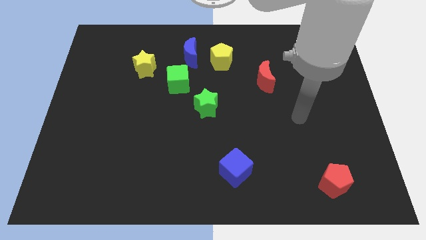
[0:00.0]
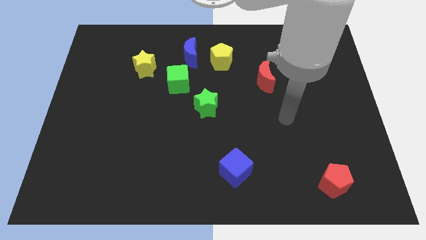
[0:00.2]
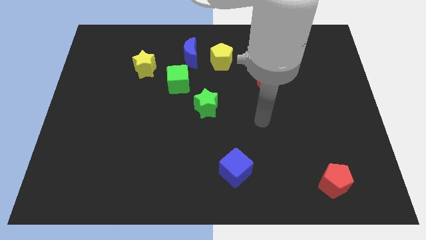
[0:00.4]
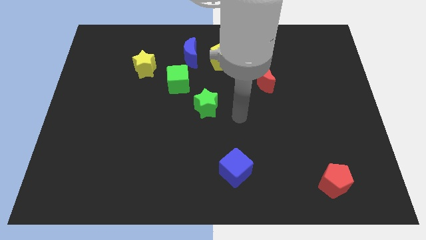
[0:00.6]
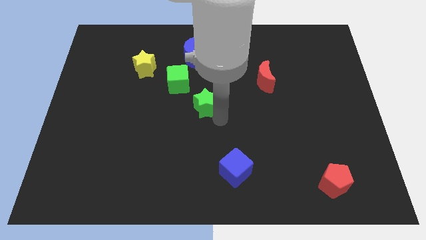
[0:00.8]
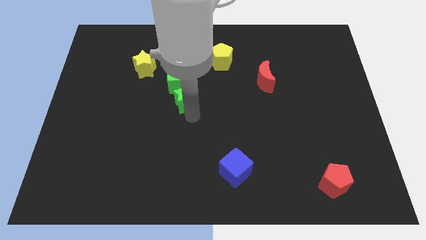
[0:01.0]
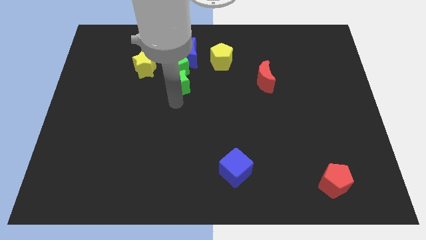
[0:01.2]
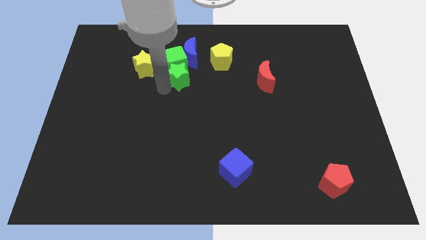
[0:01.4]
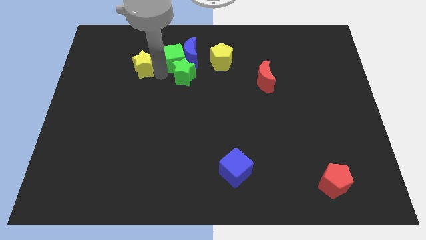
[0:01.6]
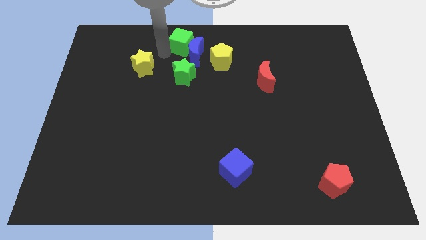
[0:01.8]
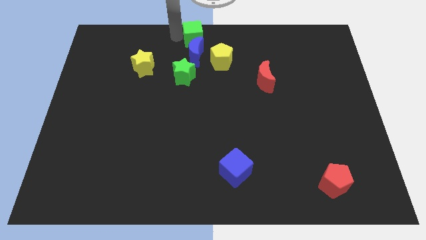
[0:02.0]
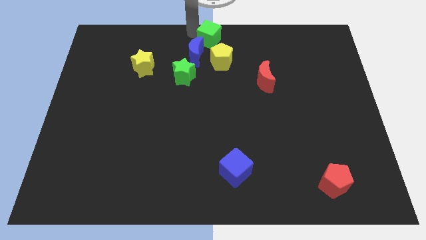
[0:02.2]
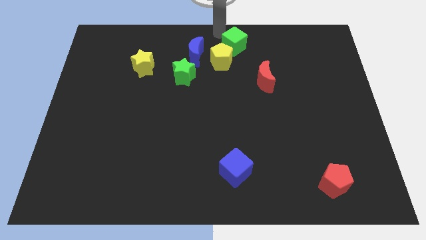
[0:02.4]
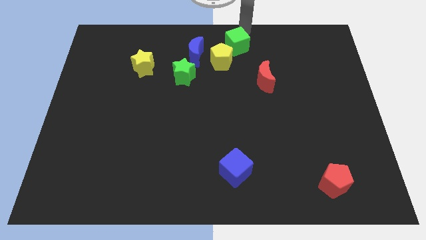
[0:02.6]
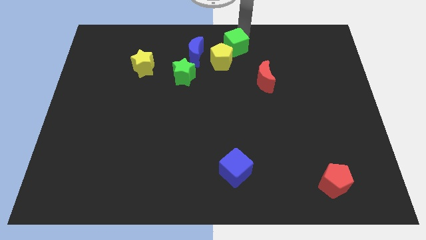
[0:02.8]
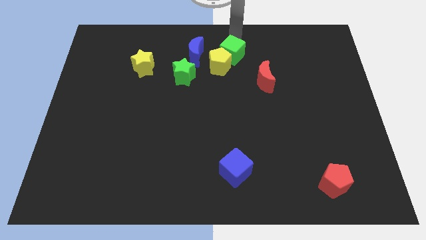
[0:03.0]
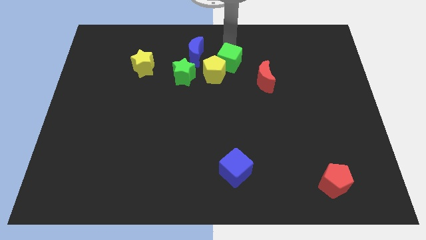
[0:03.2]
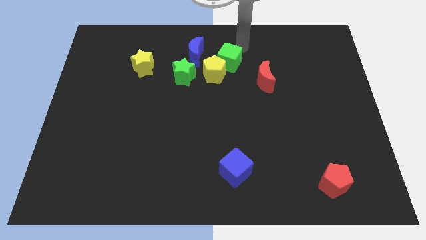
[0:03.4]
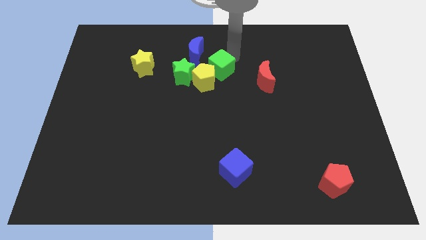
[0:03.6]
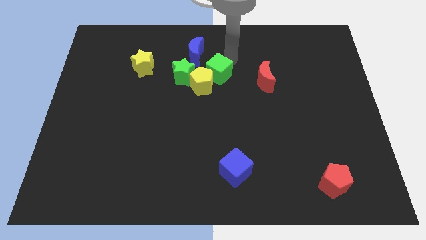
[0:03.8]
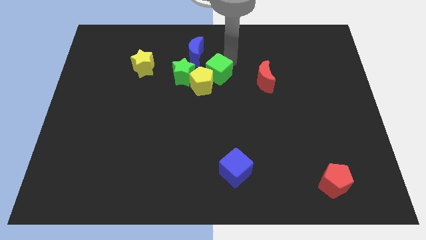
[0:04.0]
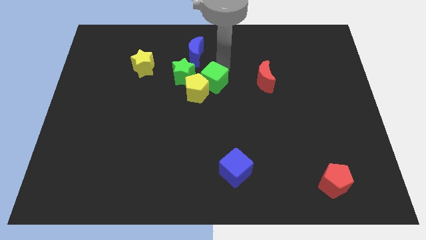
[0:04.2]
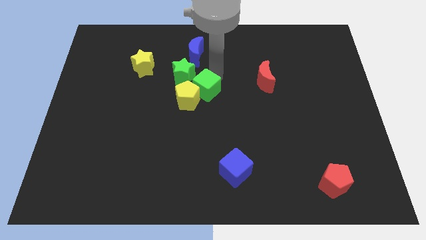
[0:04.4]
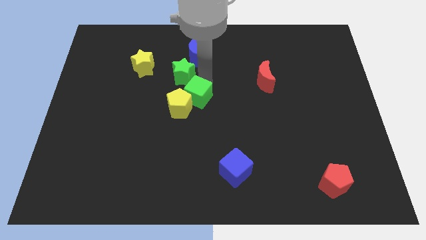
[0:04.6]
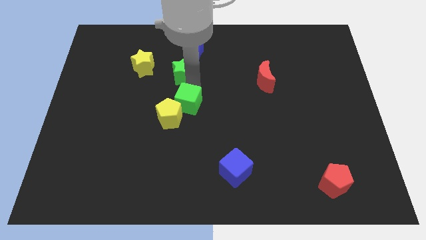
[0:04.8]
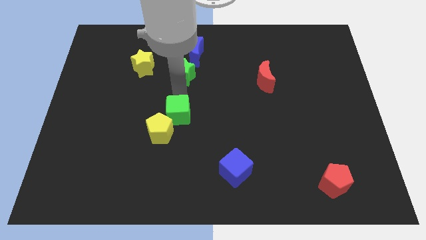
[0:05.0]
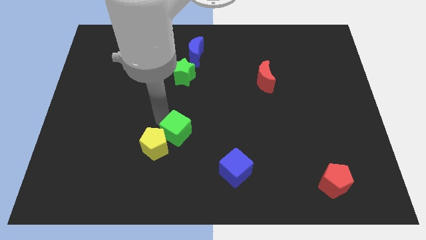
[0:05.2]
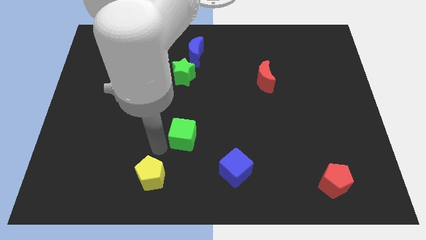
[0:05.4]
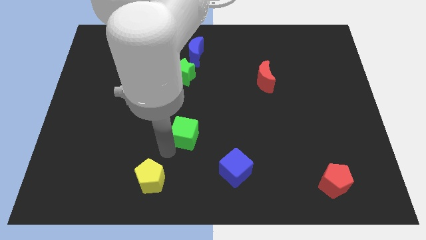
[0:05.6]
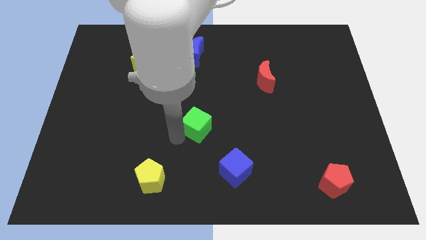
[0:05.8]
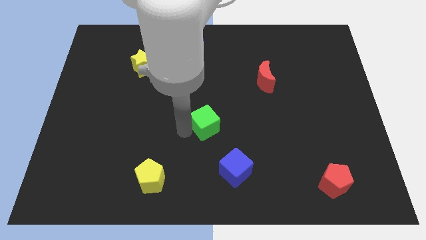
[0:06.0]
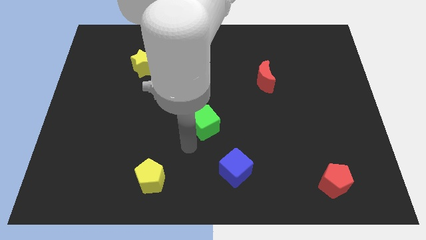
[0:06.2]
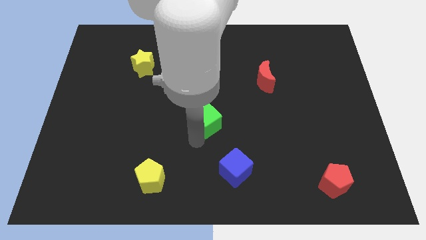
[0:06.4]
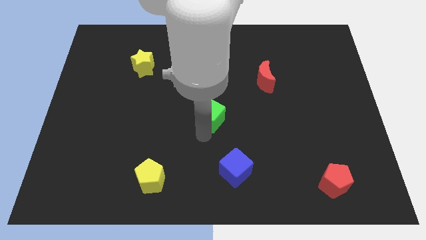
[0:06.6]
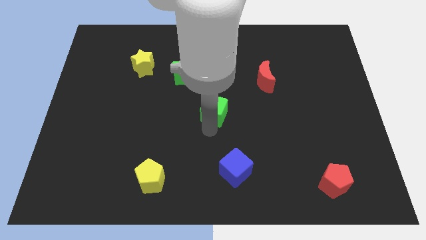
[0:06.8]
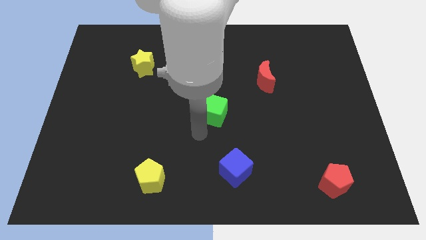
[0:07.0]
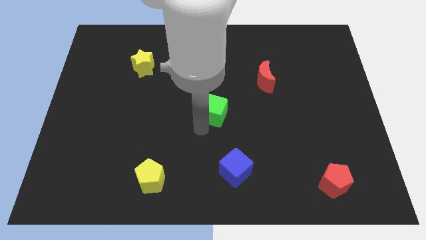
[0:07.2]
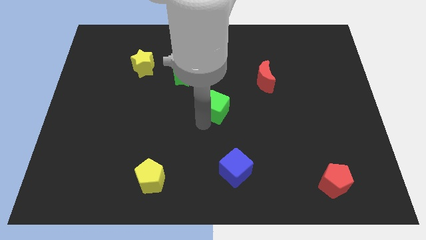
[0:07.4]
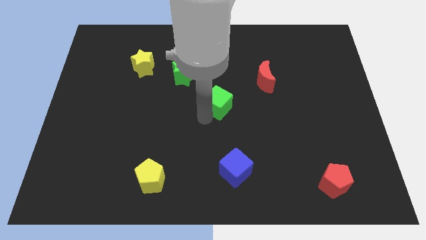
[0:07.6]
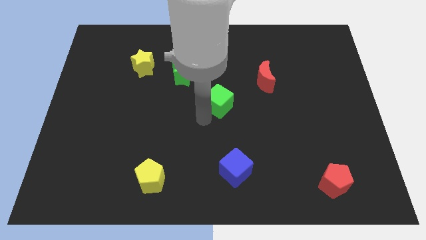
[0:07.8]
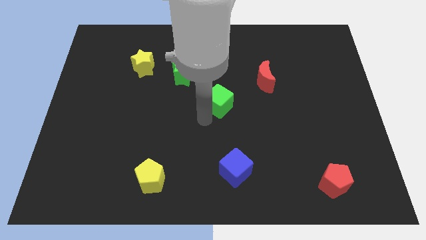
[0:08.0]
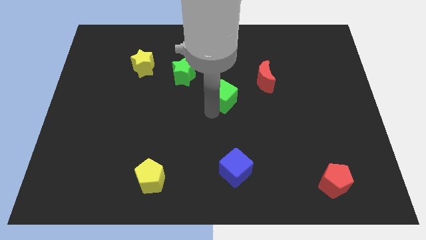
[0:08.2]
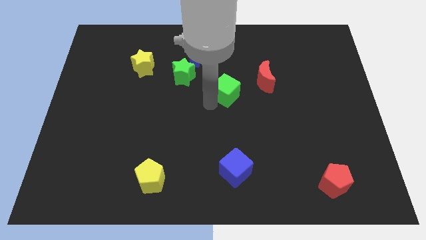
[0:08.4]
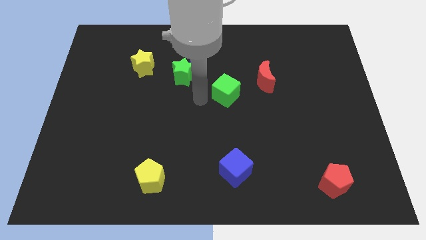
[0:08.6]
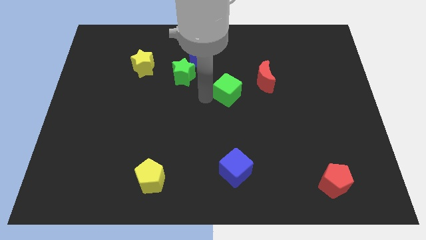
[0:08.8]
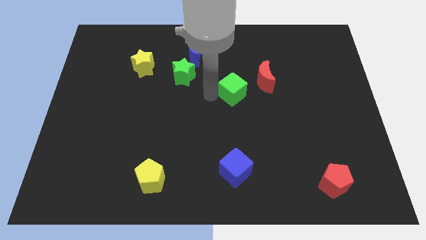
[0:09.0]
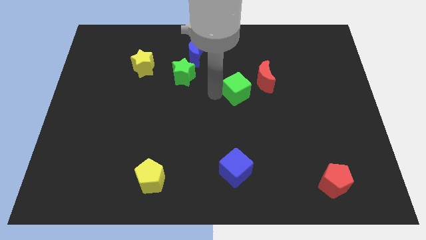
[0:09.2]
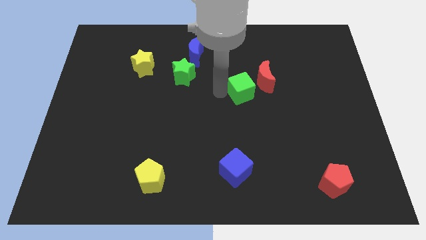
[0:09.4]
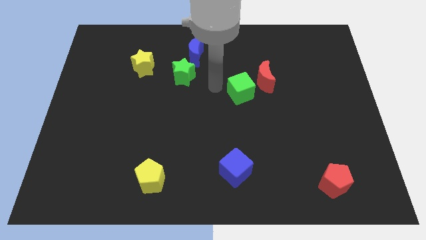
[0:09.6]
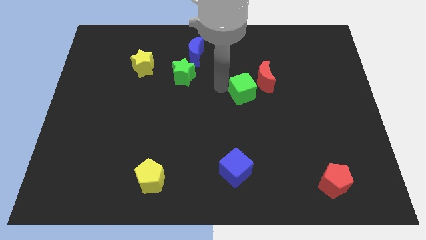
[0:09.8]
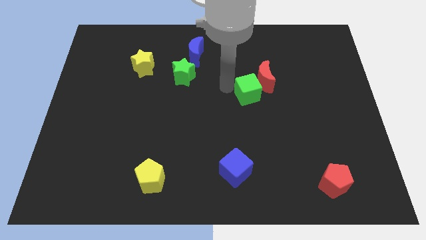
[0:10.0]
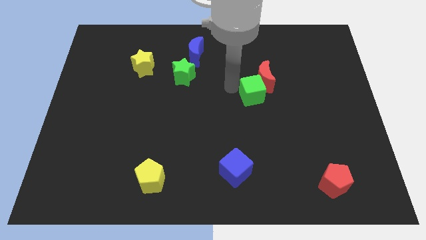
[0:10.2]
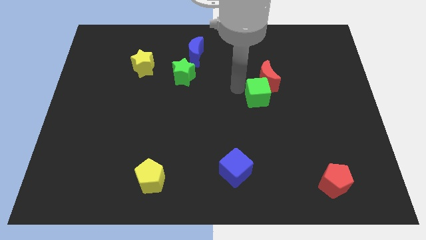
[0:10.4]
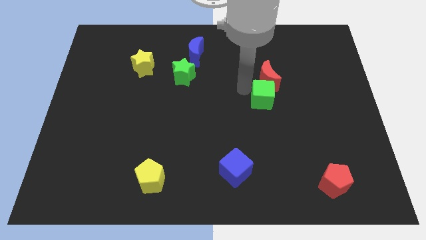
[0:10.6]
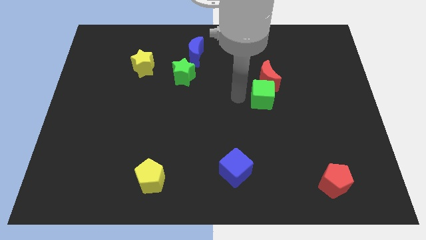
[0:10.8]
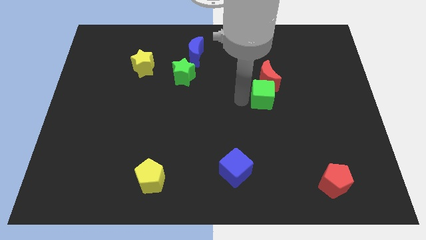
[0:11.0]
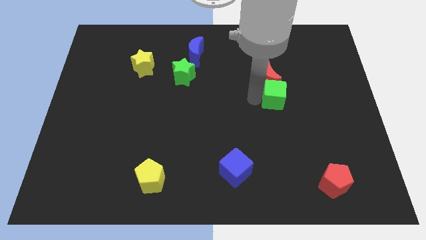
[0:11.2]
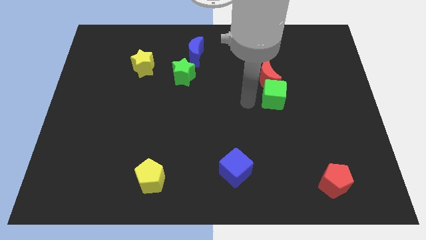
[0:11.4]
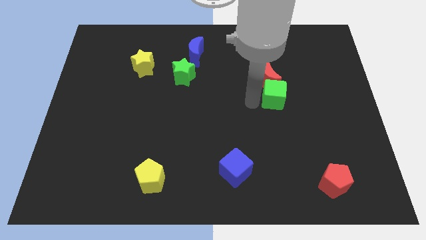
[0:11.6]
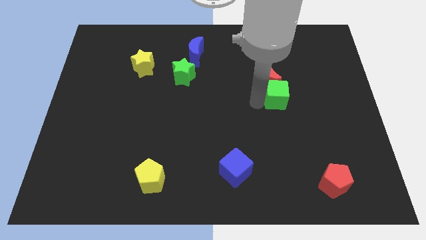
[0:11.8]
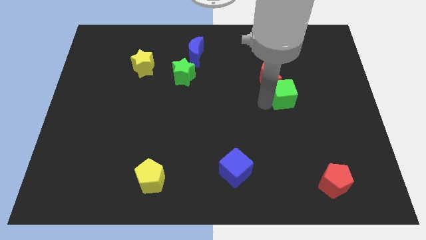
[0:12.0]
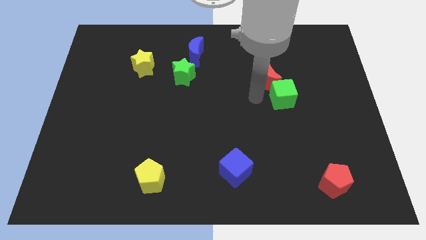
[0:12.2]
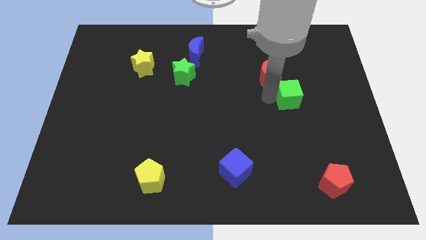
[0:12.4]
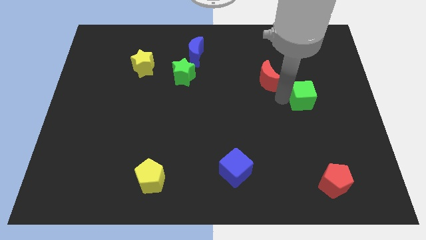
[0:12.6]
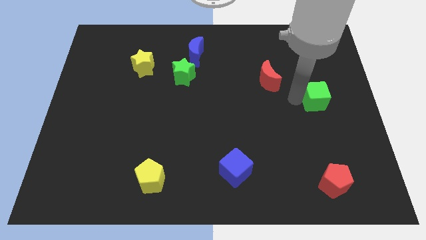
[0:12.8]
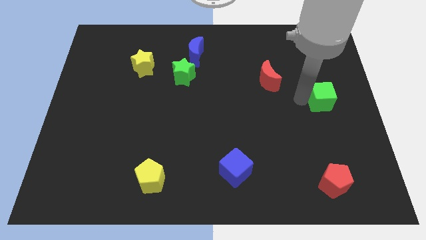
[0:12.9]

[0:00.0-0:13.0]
put the green cube to the center right
